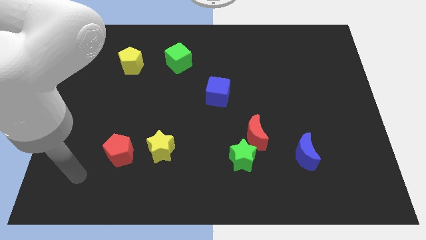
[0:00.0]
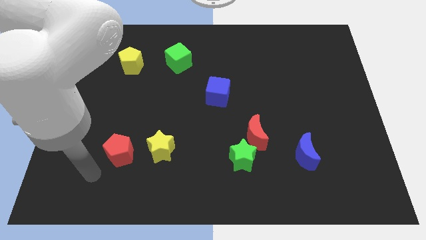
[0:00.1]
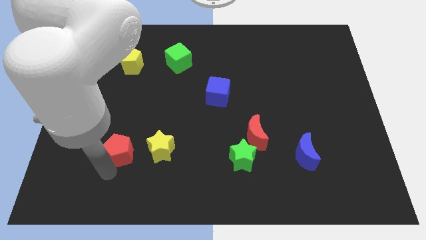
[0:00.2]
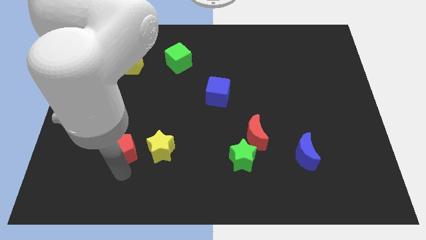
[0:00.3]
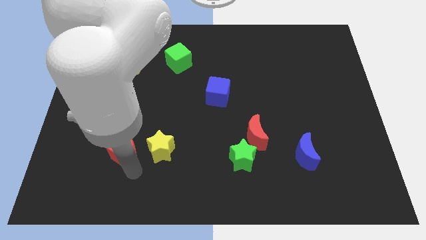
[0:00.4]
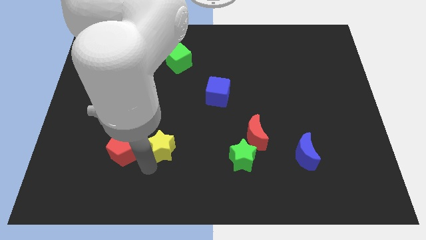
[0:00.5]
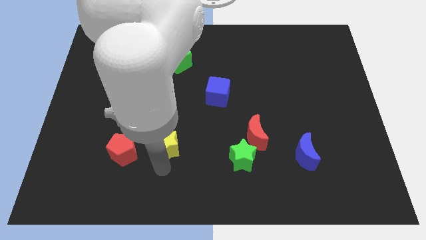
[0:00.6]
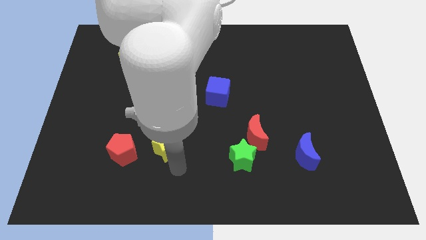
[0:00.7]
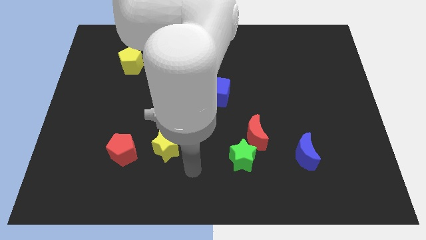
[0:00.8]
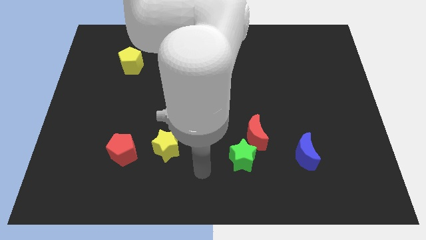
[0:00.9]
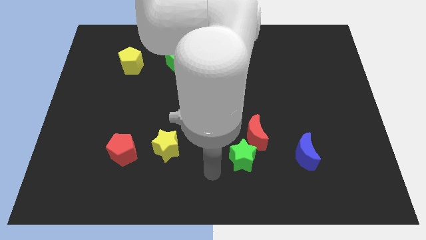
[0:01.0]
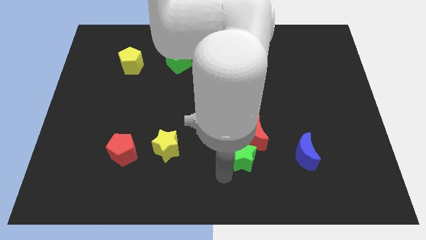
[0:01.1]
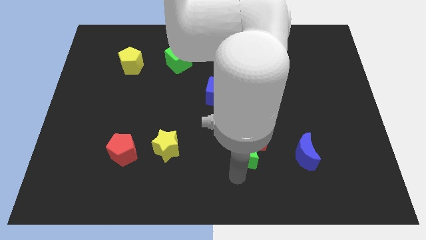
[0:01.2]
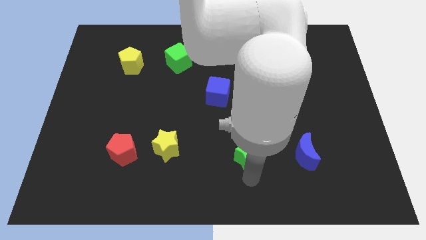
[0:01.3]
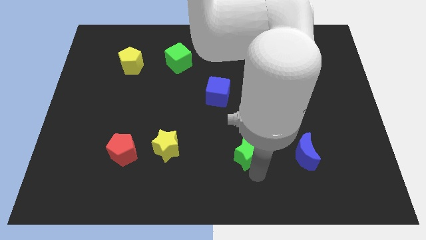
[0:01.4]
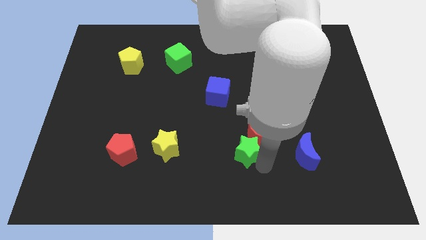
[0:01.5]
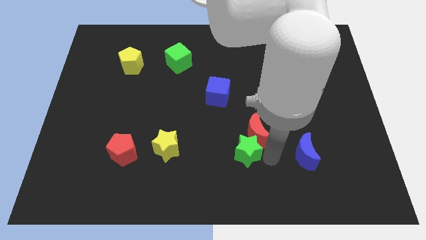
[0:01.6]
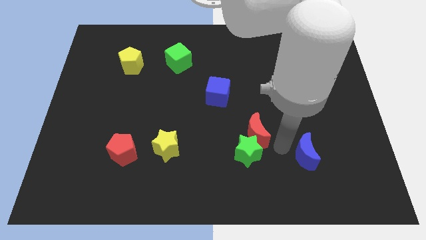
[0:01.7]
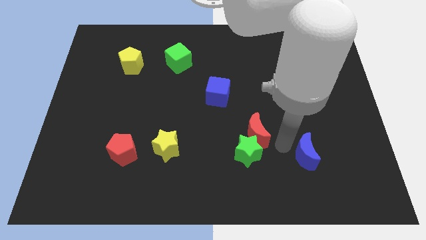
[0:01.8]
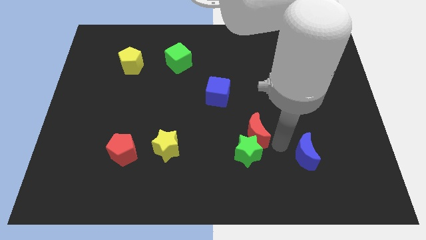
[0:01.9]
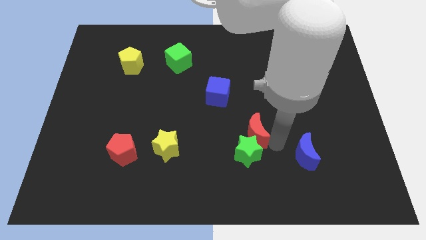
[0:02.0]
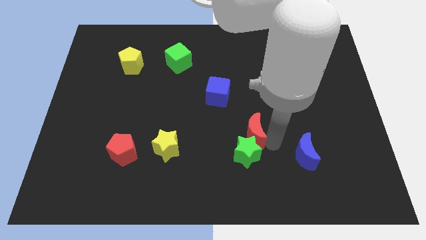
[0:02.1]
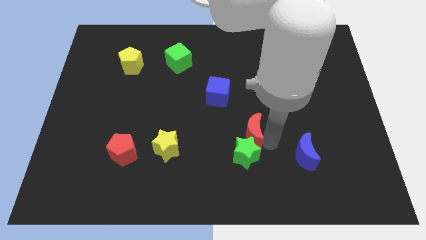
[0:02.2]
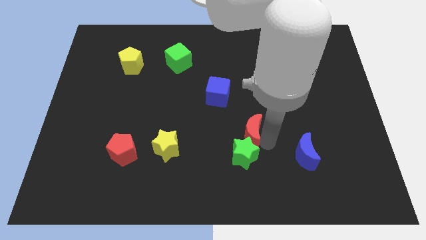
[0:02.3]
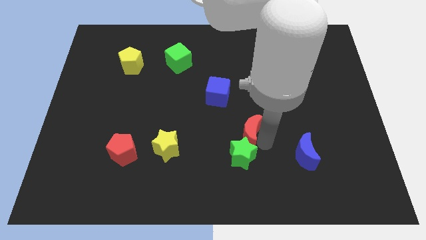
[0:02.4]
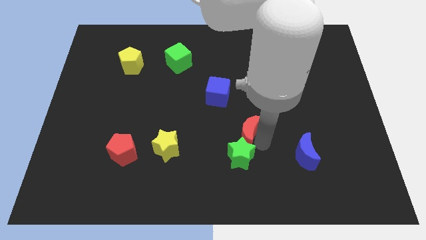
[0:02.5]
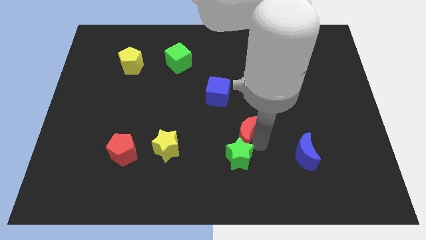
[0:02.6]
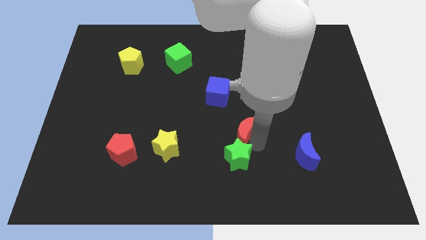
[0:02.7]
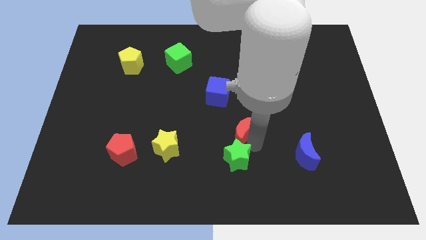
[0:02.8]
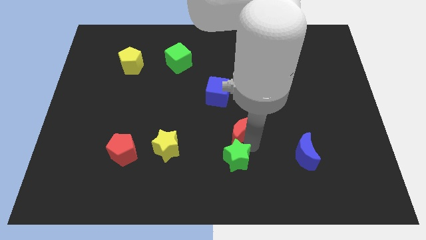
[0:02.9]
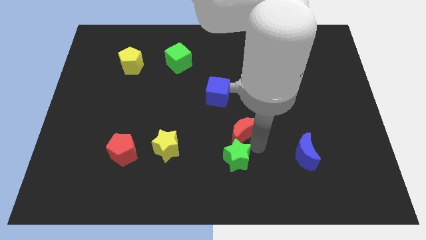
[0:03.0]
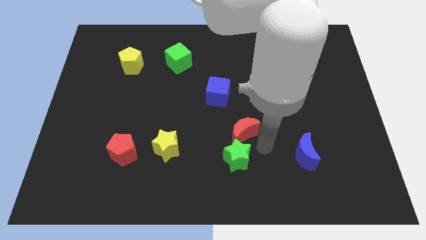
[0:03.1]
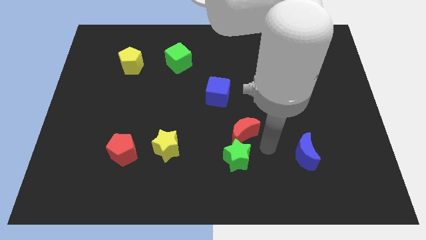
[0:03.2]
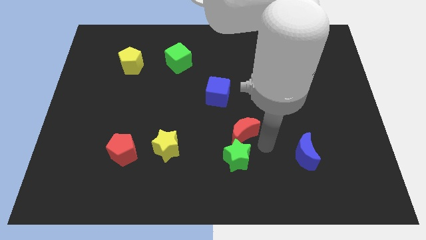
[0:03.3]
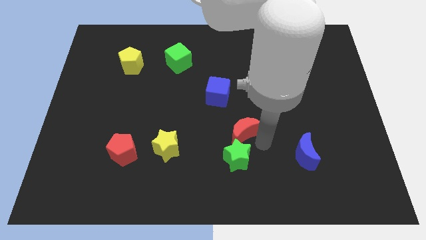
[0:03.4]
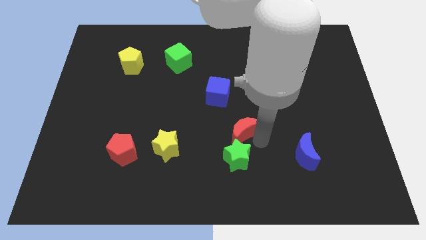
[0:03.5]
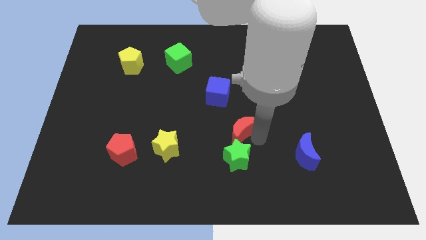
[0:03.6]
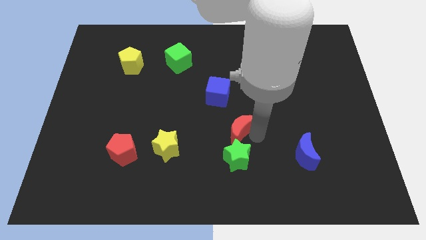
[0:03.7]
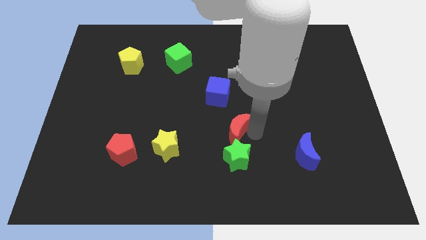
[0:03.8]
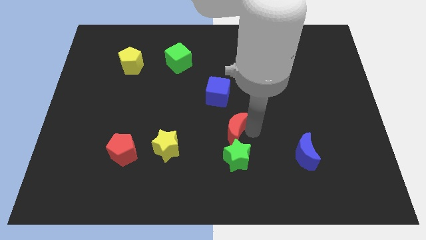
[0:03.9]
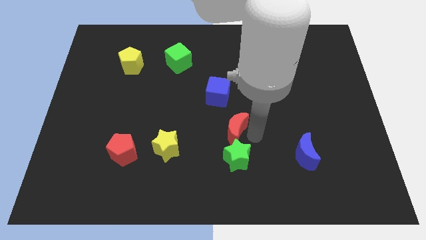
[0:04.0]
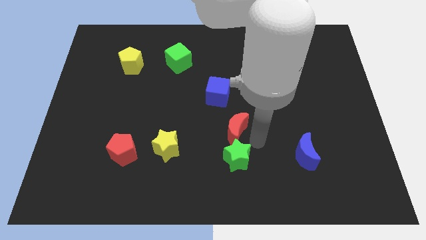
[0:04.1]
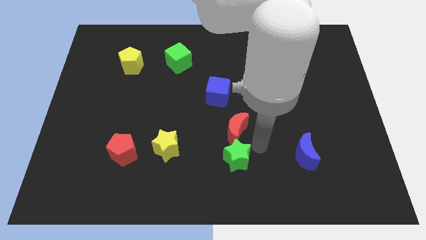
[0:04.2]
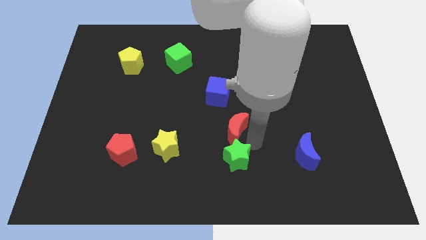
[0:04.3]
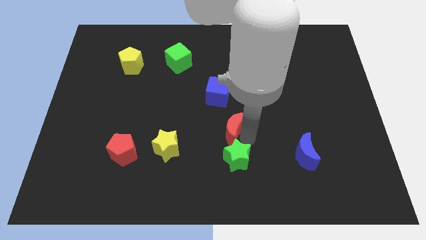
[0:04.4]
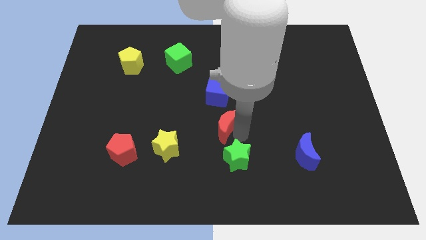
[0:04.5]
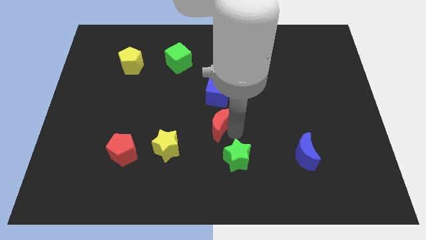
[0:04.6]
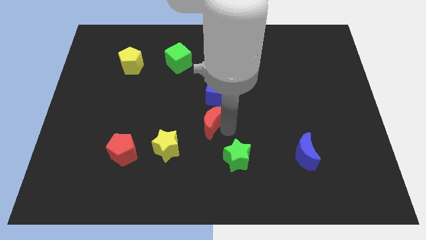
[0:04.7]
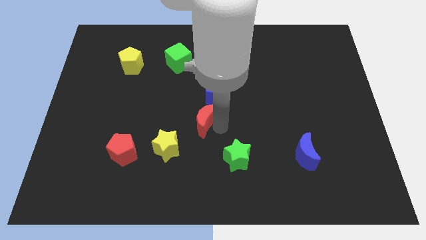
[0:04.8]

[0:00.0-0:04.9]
move the red moon to the bottom left of the blue cube

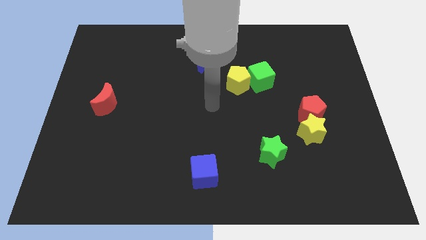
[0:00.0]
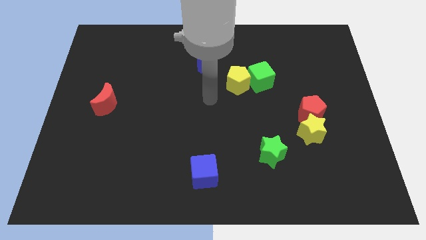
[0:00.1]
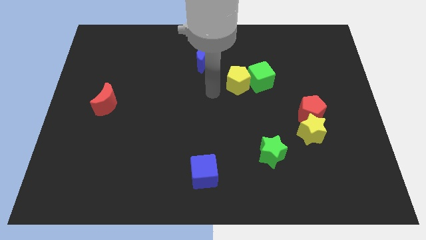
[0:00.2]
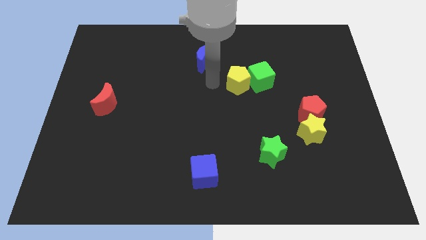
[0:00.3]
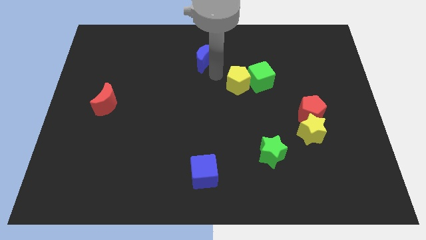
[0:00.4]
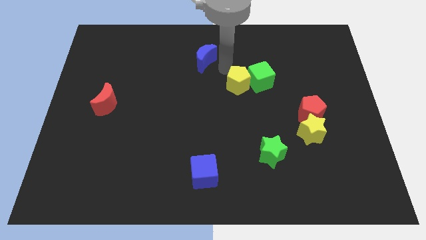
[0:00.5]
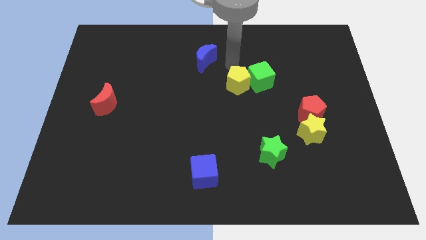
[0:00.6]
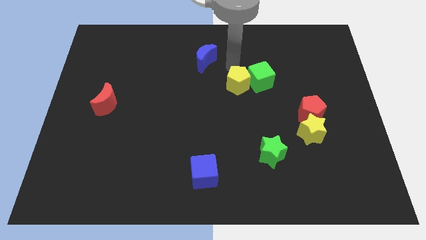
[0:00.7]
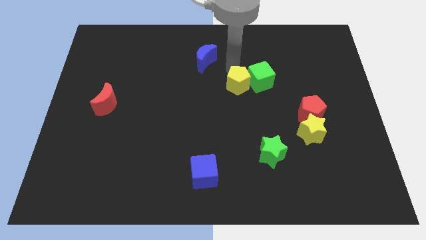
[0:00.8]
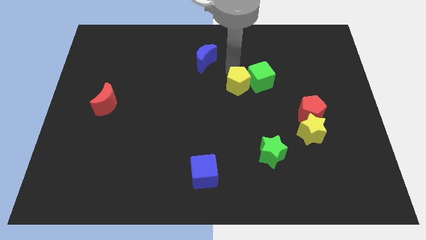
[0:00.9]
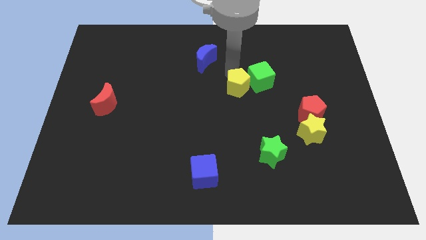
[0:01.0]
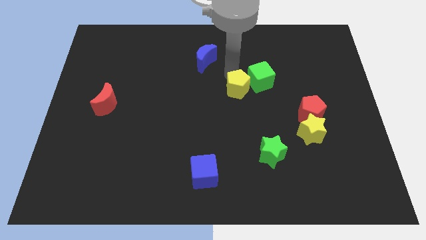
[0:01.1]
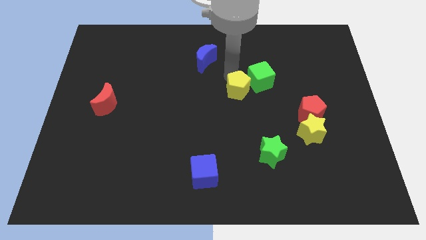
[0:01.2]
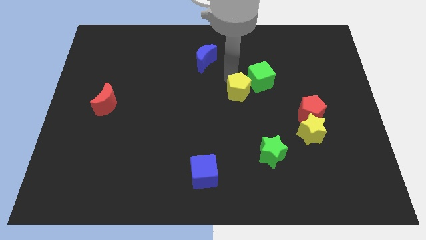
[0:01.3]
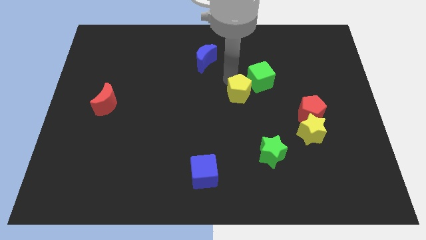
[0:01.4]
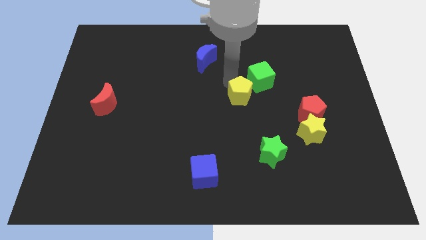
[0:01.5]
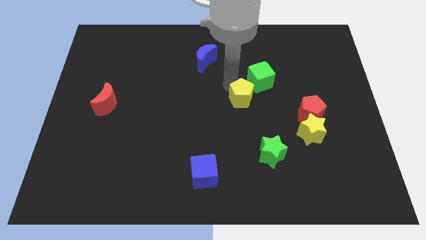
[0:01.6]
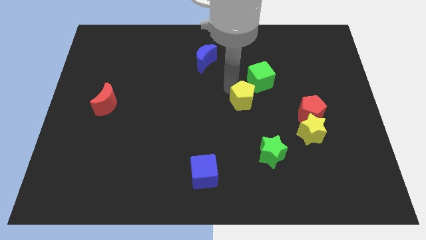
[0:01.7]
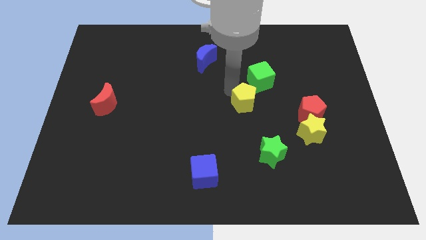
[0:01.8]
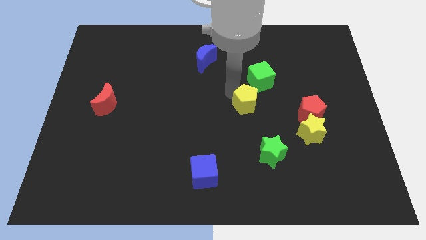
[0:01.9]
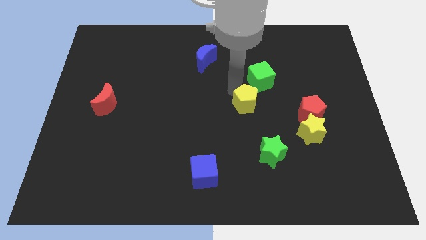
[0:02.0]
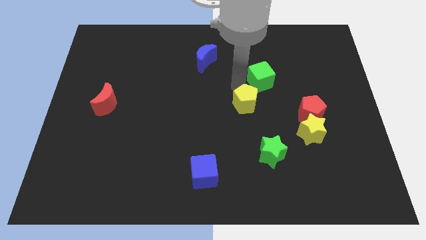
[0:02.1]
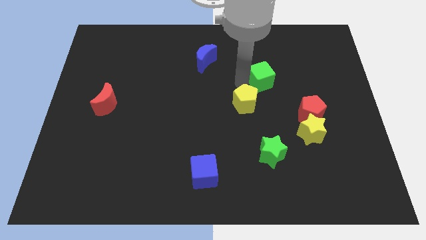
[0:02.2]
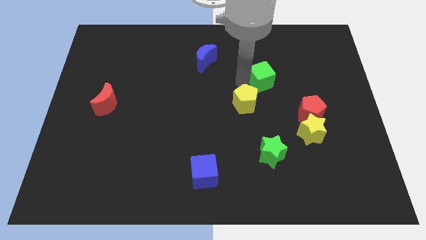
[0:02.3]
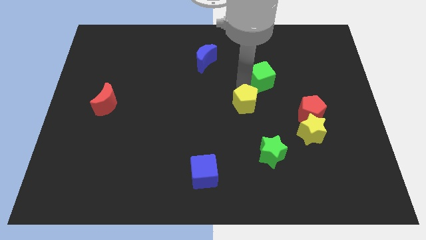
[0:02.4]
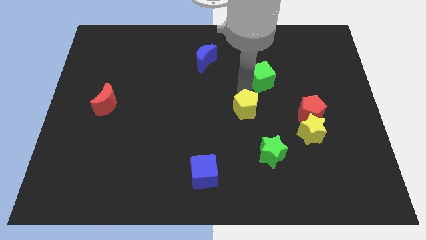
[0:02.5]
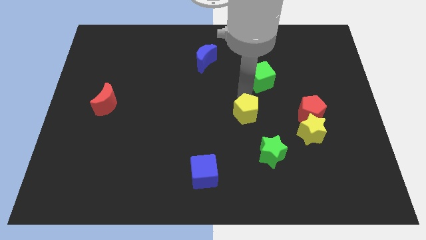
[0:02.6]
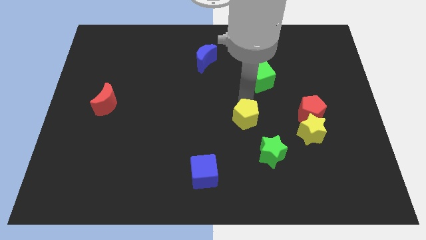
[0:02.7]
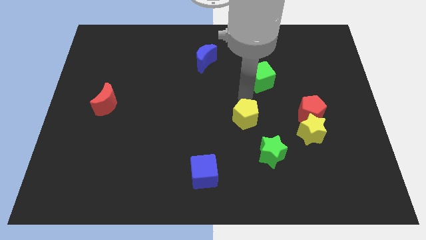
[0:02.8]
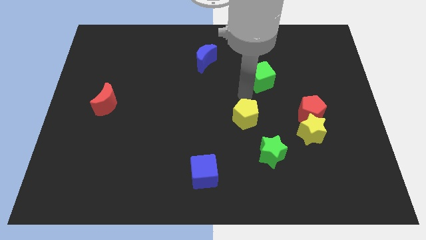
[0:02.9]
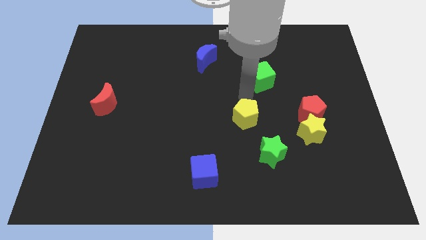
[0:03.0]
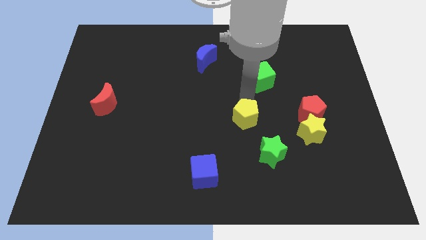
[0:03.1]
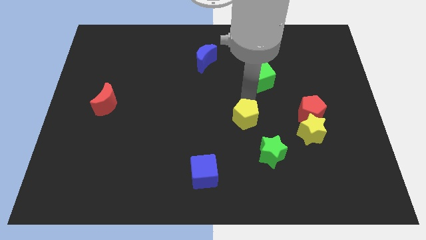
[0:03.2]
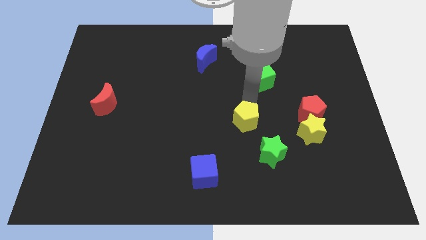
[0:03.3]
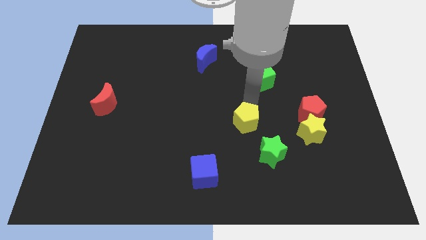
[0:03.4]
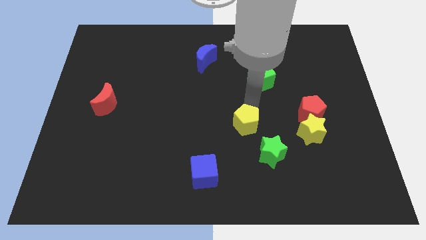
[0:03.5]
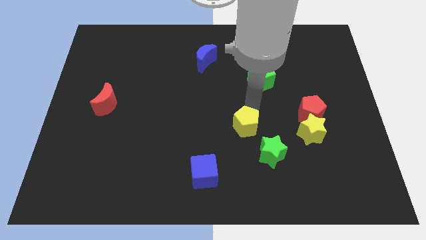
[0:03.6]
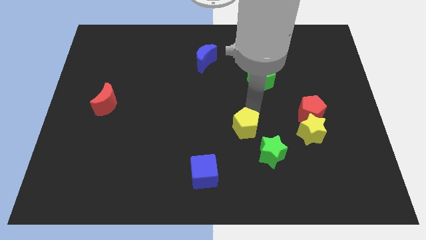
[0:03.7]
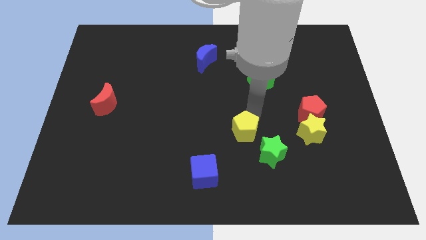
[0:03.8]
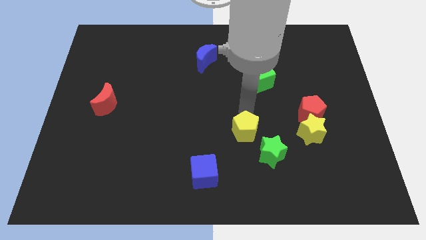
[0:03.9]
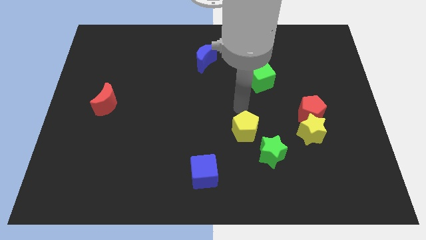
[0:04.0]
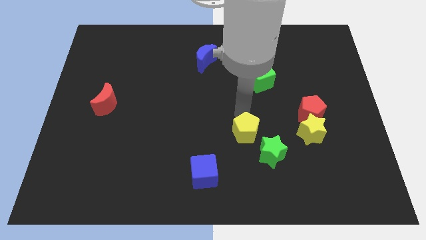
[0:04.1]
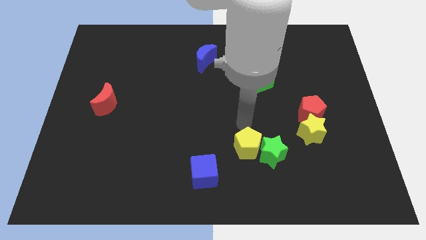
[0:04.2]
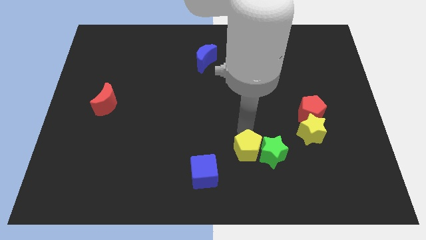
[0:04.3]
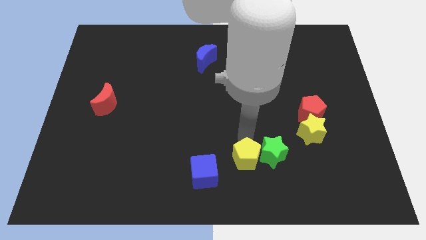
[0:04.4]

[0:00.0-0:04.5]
put the yellow pentagon to the right side of the blue cube
